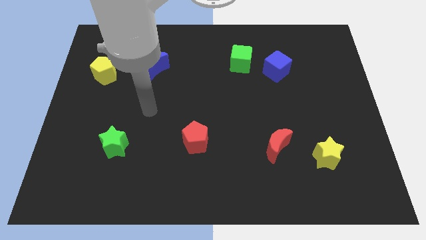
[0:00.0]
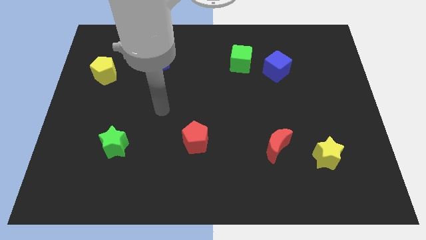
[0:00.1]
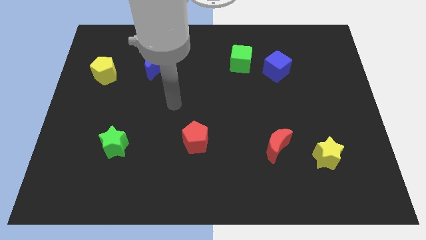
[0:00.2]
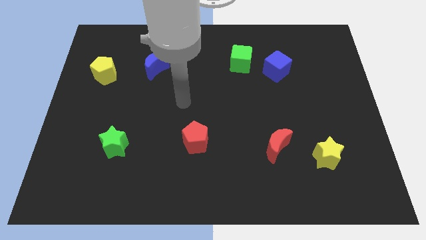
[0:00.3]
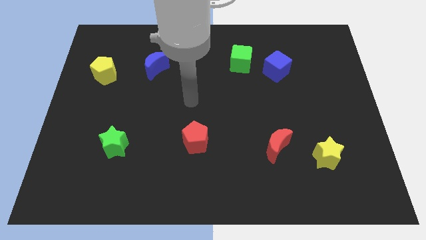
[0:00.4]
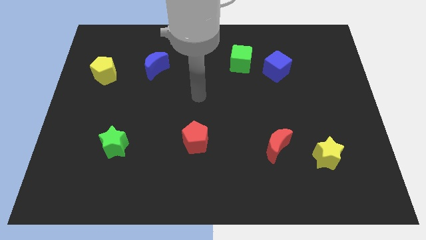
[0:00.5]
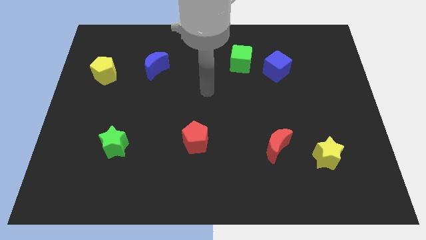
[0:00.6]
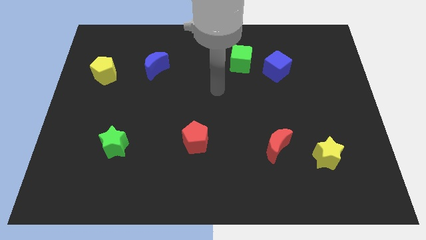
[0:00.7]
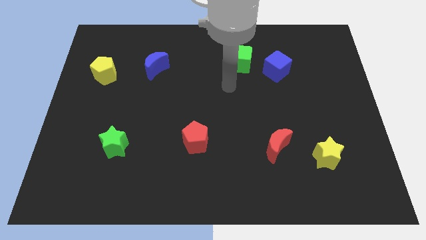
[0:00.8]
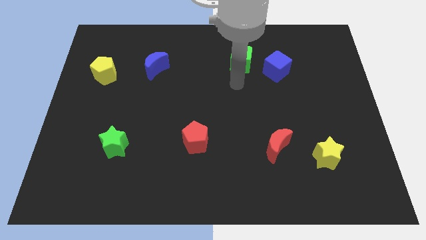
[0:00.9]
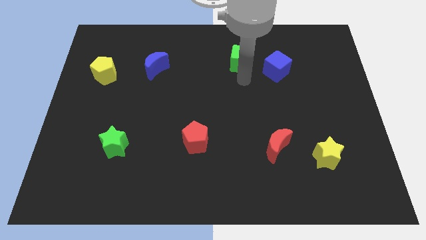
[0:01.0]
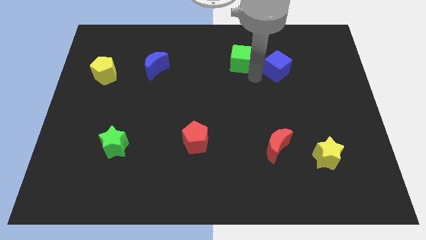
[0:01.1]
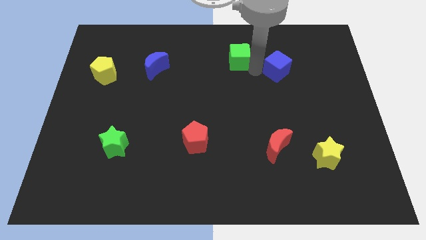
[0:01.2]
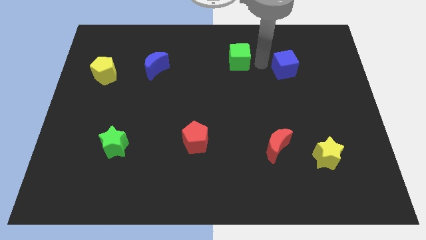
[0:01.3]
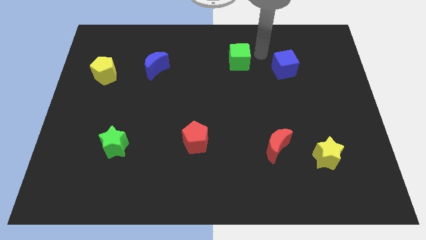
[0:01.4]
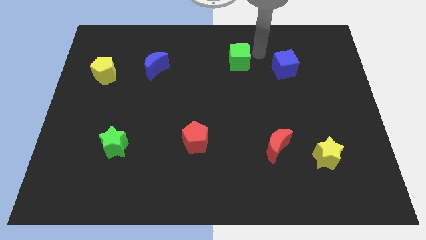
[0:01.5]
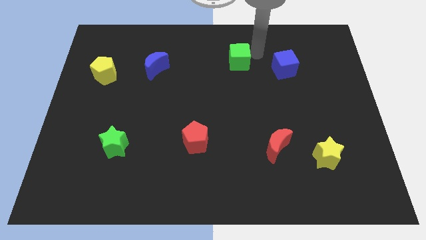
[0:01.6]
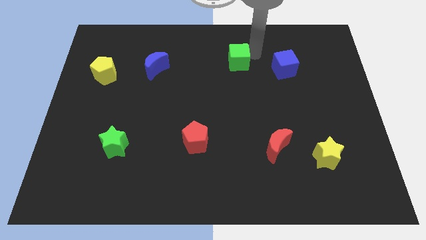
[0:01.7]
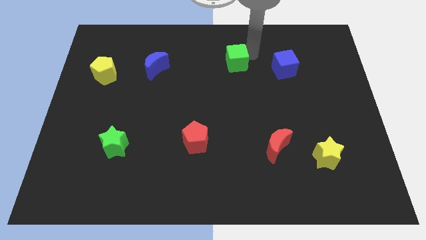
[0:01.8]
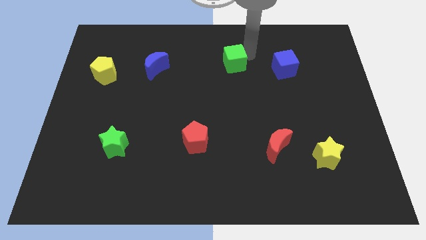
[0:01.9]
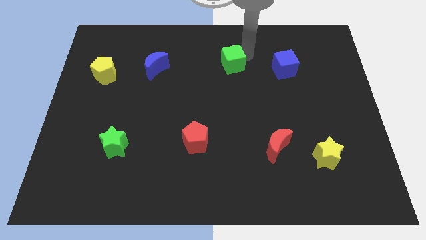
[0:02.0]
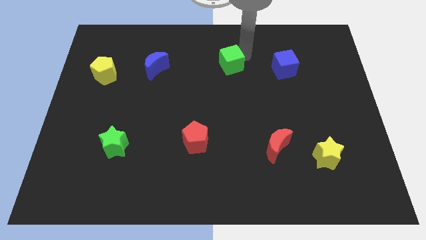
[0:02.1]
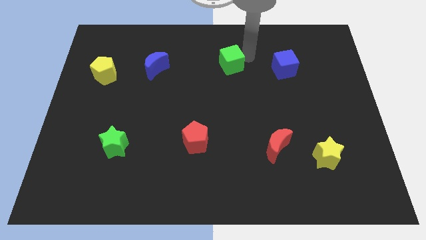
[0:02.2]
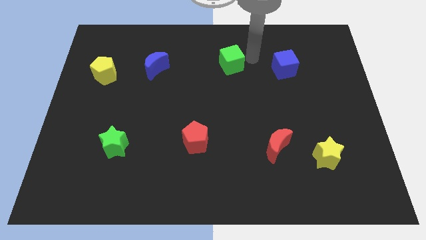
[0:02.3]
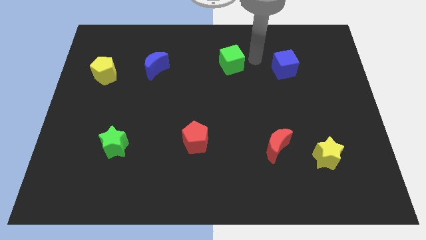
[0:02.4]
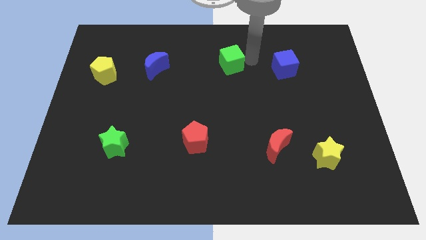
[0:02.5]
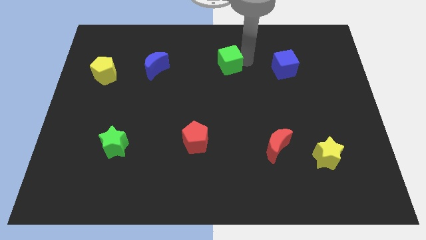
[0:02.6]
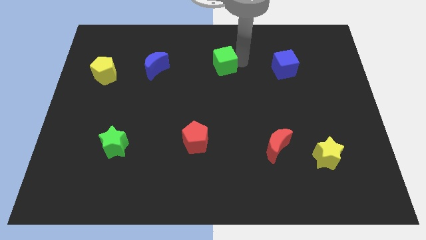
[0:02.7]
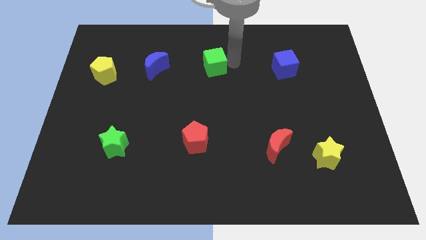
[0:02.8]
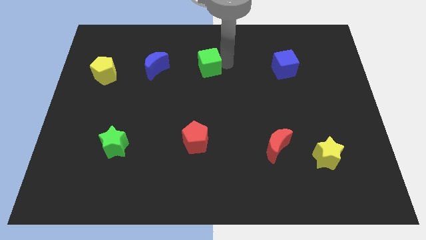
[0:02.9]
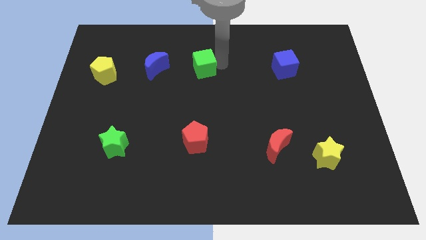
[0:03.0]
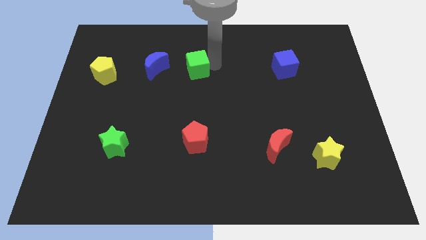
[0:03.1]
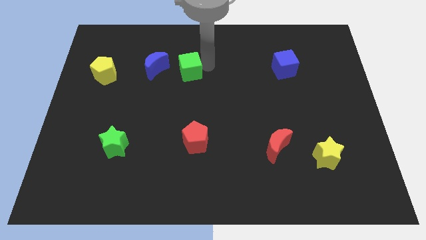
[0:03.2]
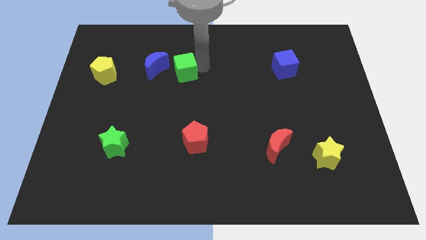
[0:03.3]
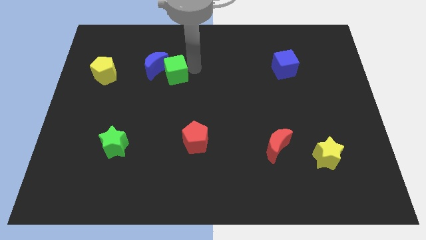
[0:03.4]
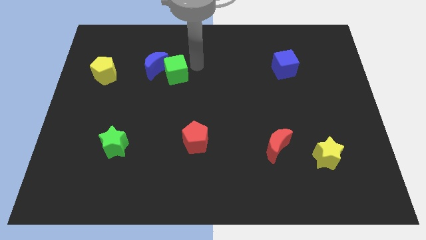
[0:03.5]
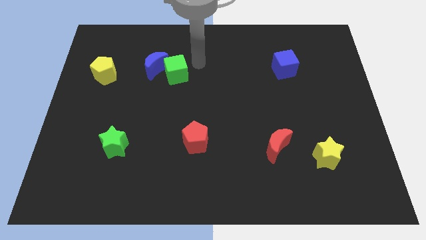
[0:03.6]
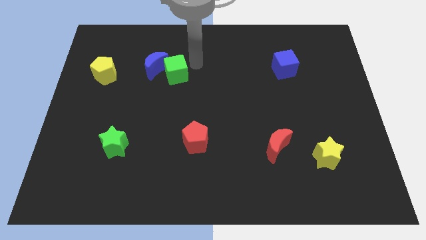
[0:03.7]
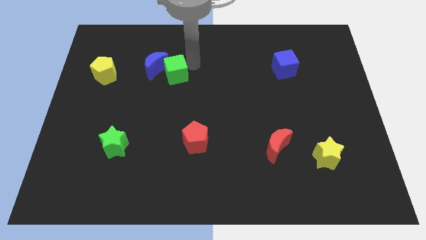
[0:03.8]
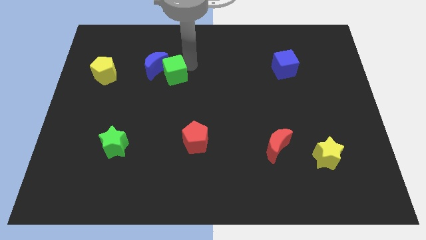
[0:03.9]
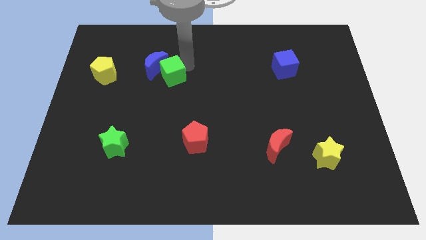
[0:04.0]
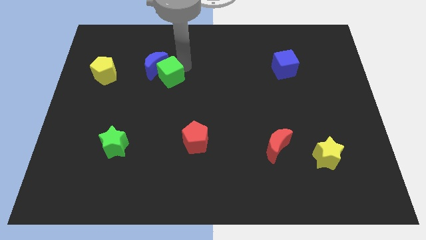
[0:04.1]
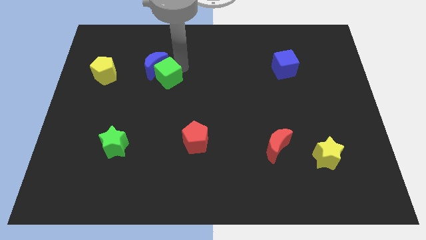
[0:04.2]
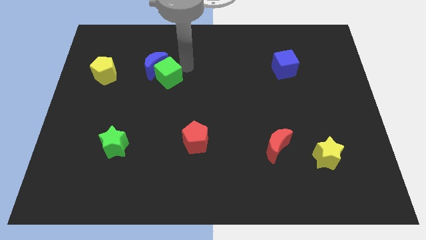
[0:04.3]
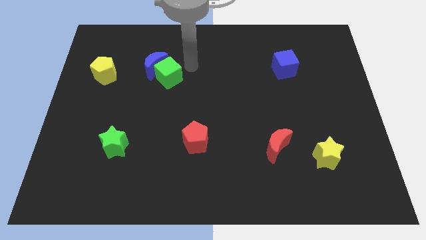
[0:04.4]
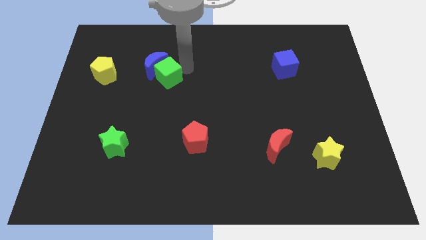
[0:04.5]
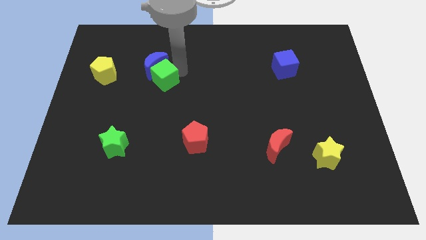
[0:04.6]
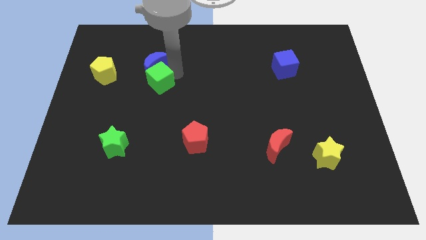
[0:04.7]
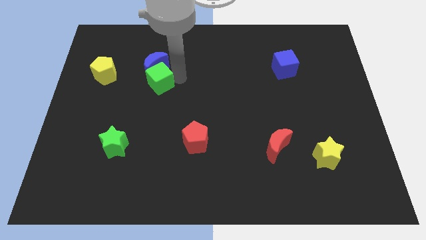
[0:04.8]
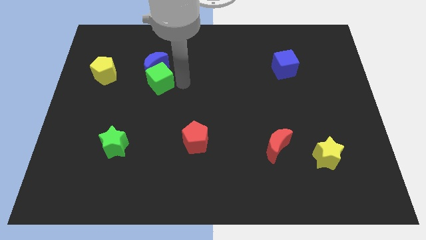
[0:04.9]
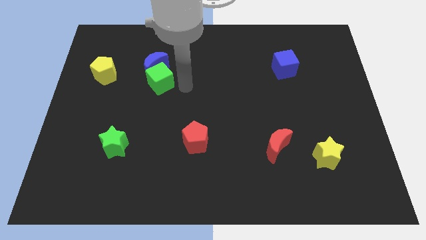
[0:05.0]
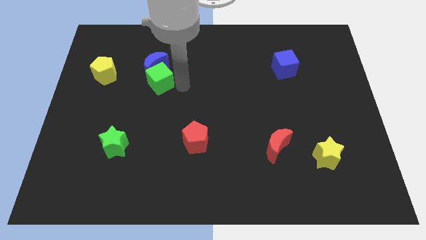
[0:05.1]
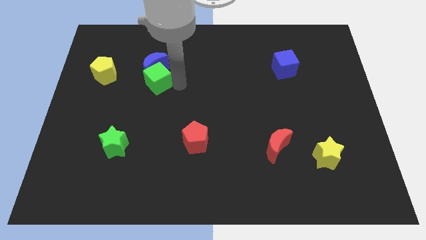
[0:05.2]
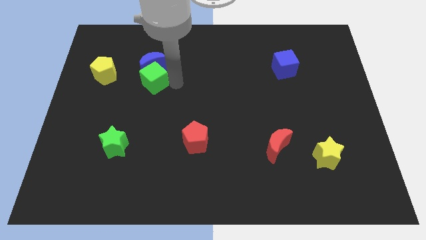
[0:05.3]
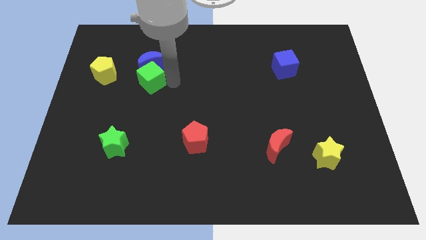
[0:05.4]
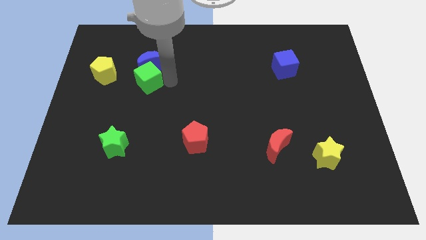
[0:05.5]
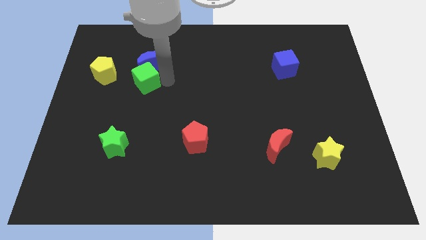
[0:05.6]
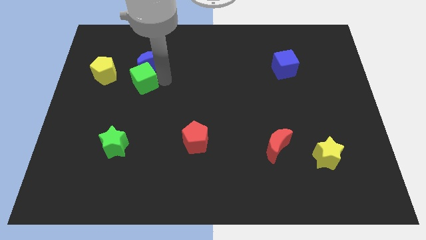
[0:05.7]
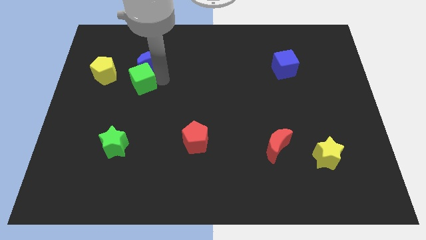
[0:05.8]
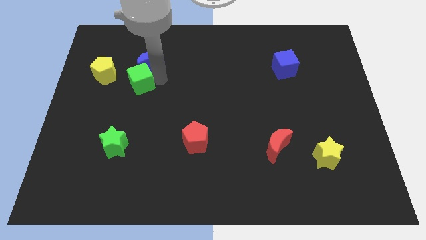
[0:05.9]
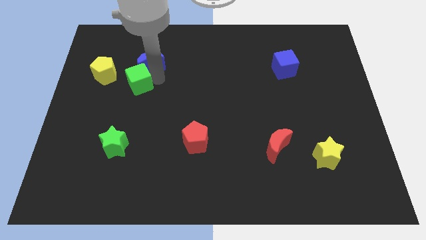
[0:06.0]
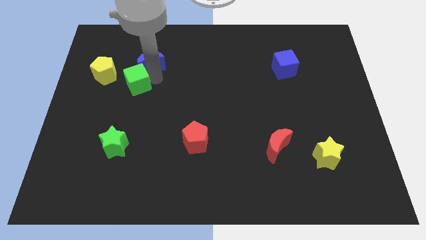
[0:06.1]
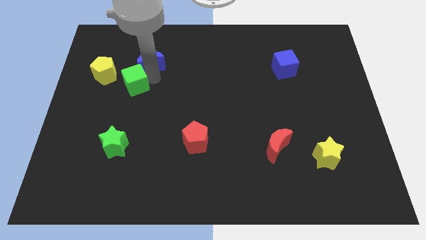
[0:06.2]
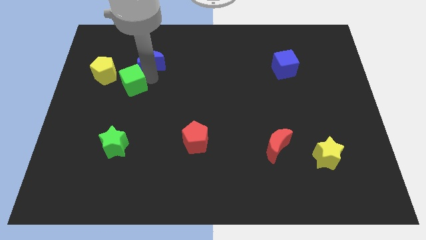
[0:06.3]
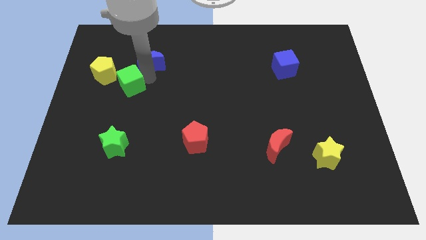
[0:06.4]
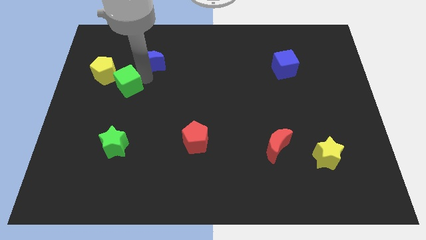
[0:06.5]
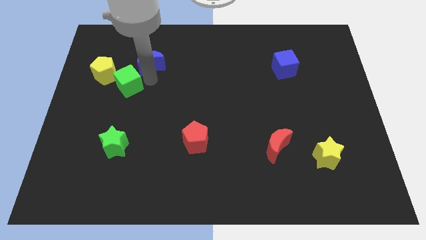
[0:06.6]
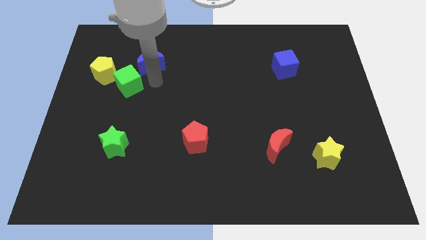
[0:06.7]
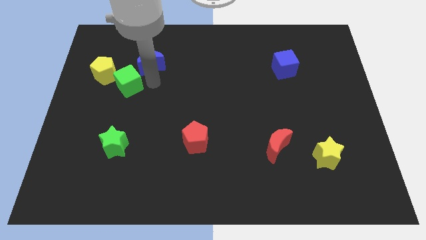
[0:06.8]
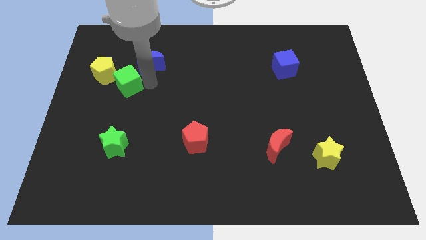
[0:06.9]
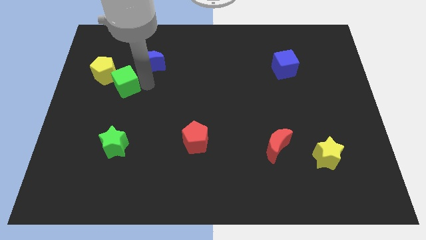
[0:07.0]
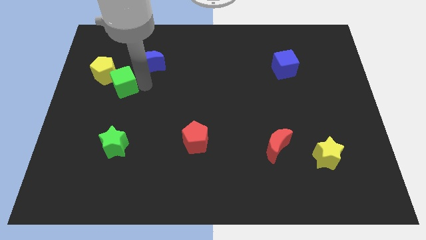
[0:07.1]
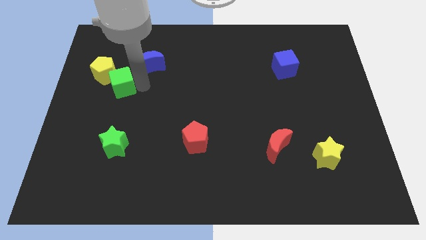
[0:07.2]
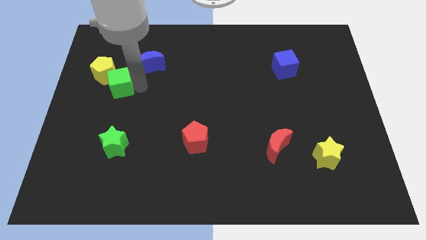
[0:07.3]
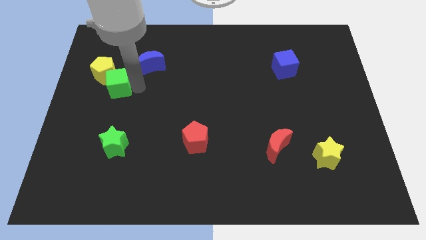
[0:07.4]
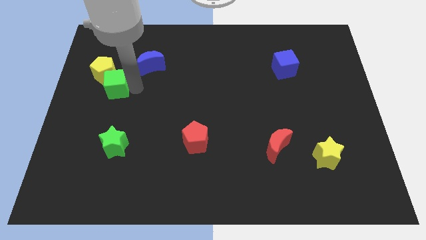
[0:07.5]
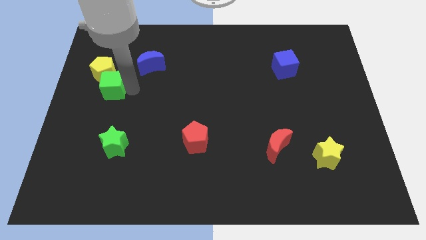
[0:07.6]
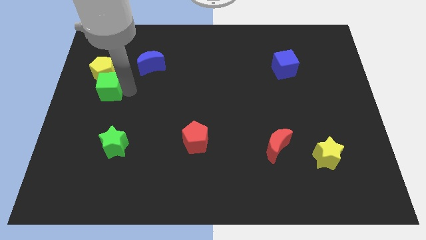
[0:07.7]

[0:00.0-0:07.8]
slide the green cube to the left side
